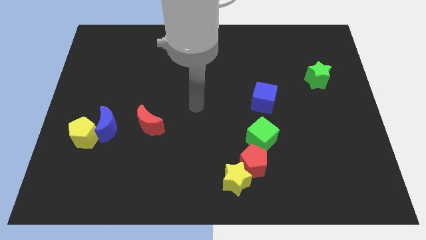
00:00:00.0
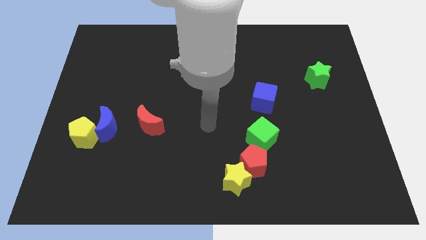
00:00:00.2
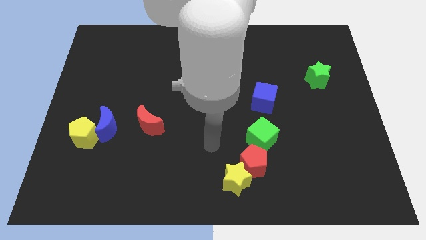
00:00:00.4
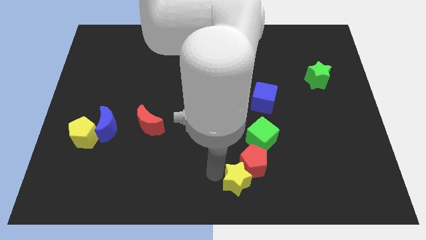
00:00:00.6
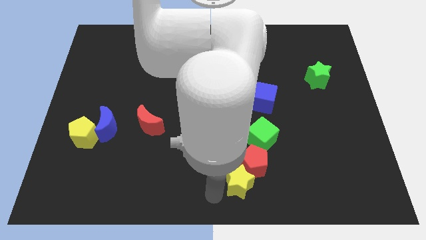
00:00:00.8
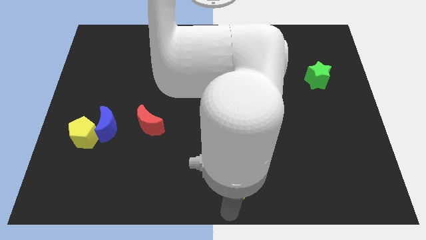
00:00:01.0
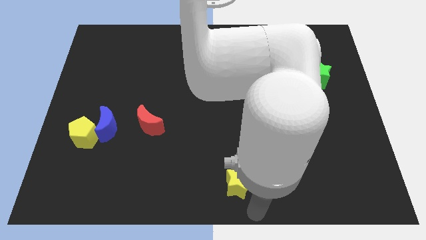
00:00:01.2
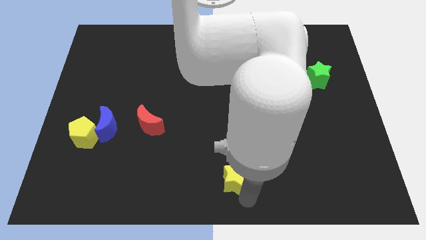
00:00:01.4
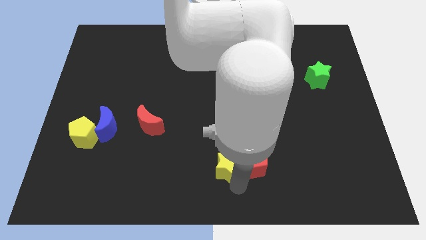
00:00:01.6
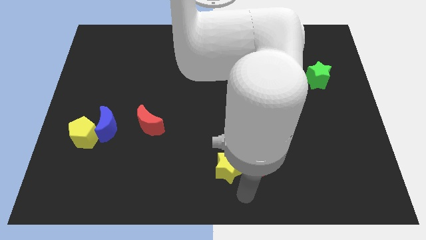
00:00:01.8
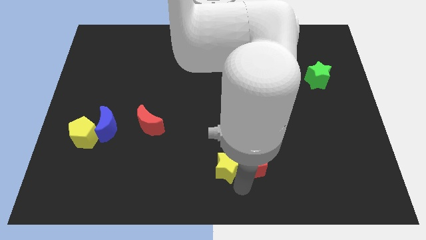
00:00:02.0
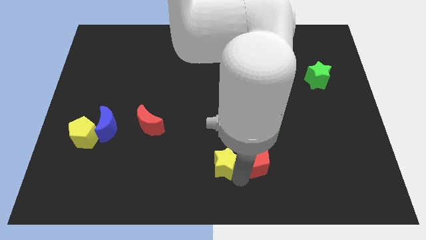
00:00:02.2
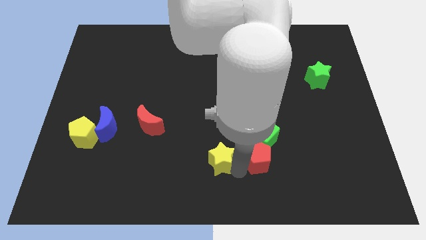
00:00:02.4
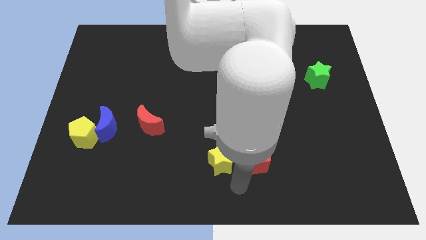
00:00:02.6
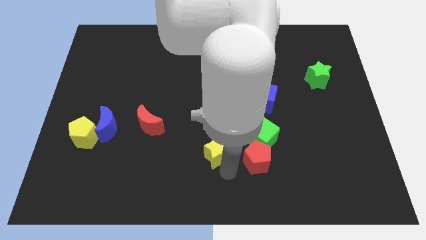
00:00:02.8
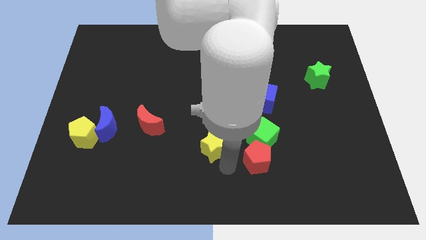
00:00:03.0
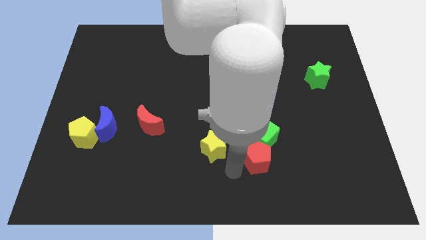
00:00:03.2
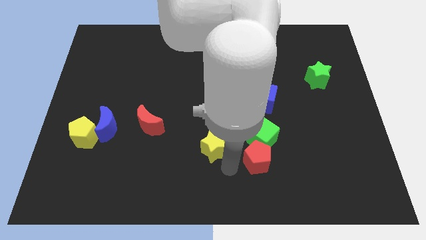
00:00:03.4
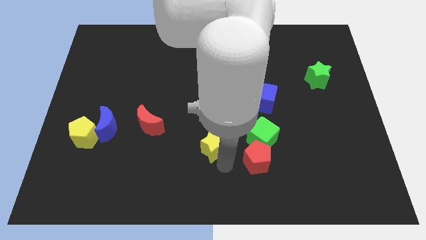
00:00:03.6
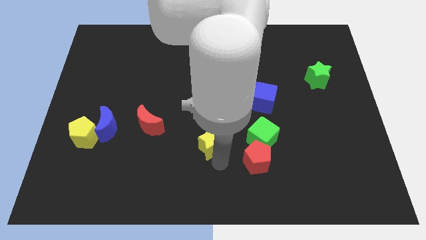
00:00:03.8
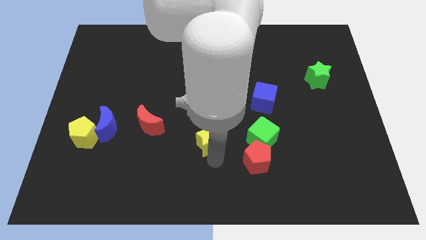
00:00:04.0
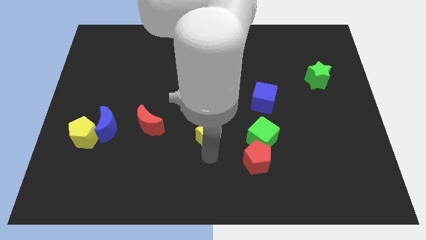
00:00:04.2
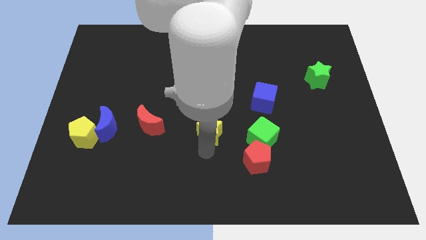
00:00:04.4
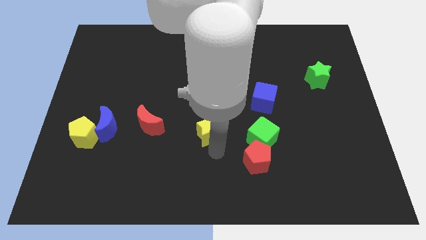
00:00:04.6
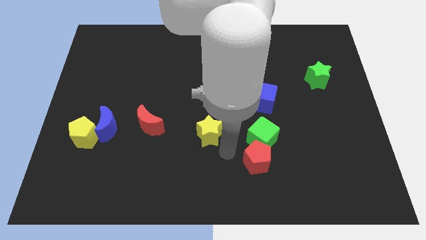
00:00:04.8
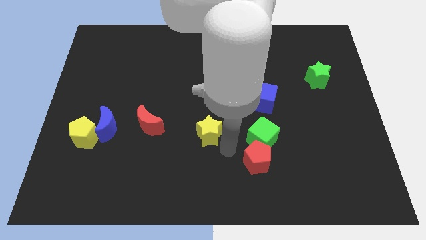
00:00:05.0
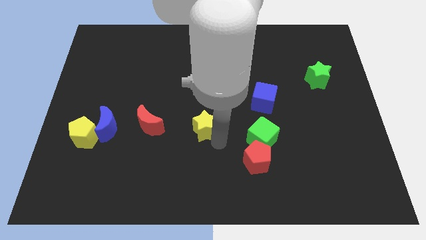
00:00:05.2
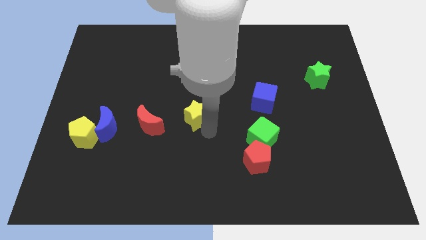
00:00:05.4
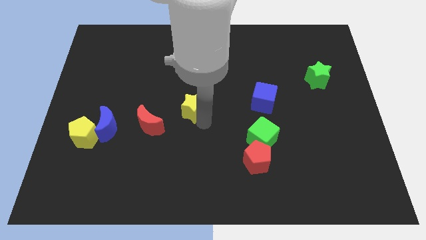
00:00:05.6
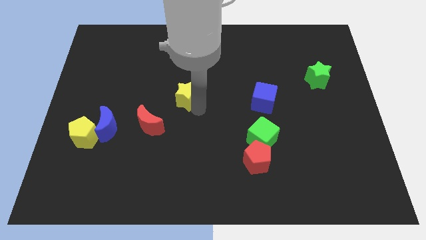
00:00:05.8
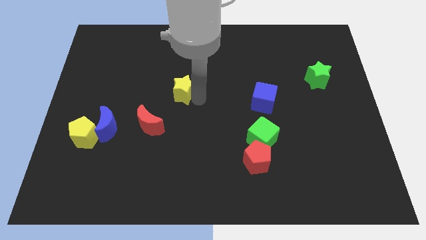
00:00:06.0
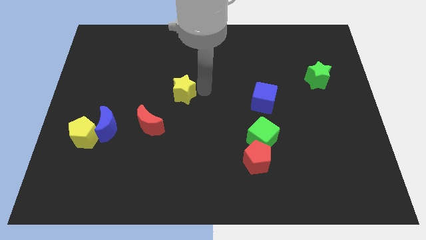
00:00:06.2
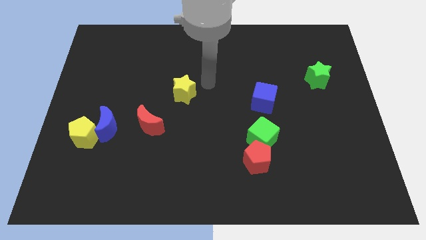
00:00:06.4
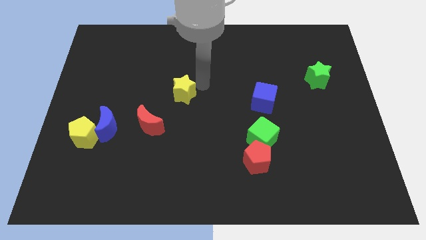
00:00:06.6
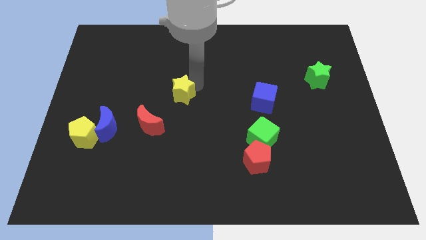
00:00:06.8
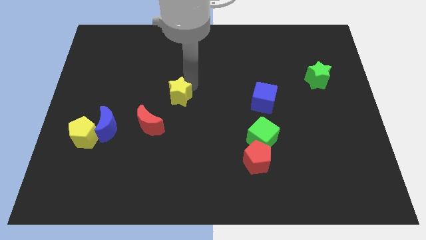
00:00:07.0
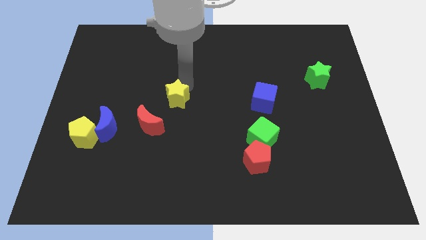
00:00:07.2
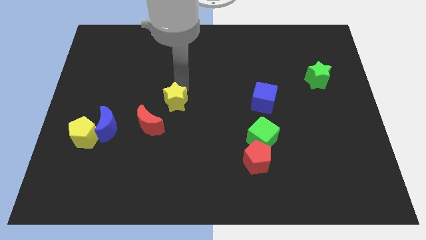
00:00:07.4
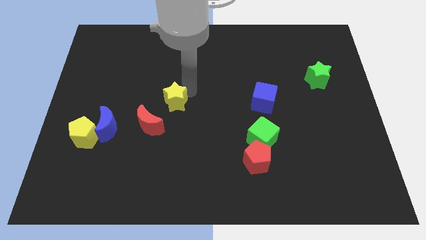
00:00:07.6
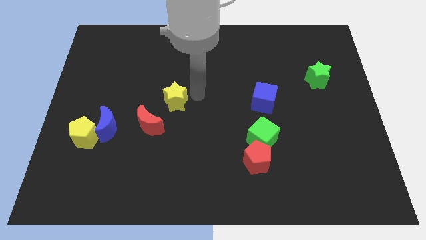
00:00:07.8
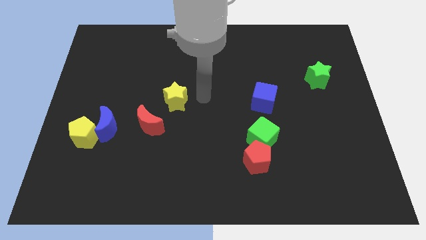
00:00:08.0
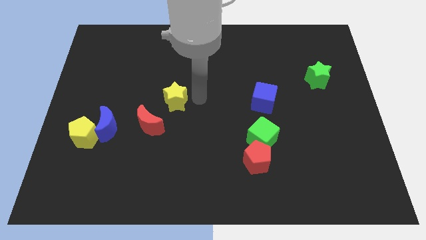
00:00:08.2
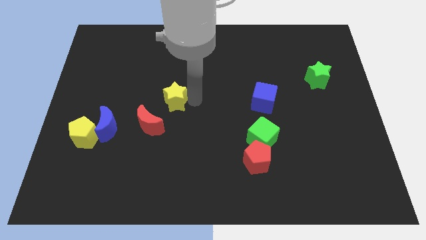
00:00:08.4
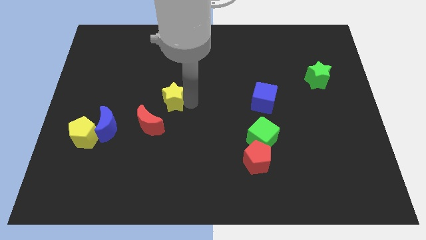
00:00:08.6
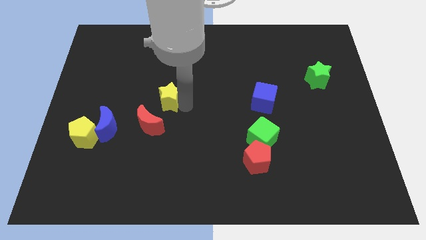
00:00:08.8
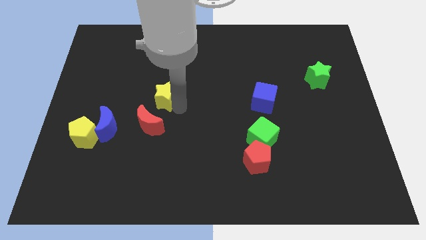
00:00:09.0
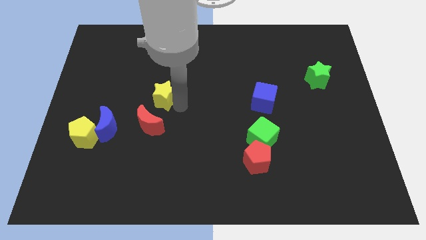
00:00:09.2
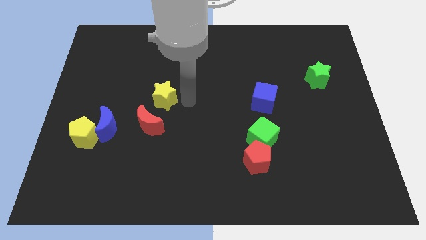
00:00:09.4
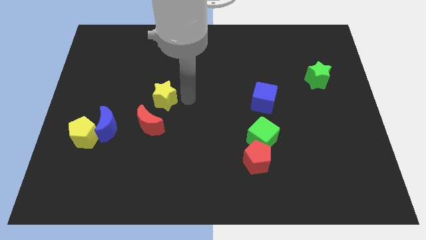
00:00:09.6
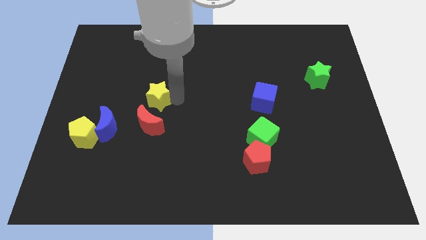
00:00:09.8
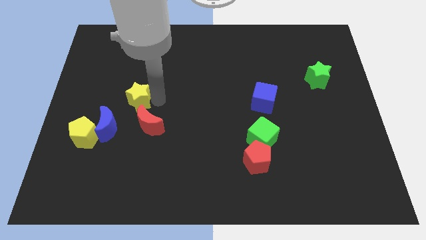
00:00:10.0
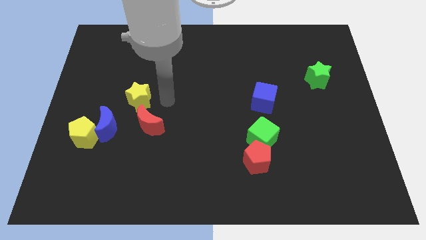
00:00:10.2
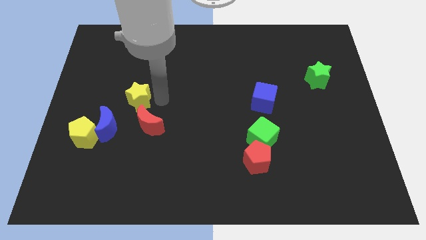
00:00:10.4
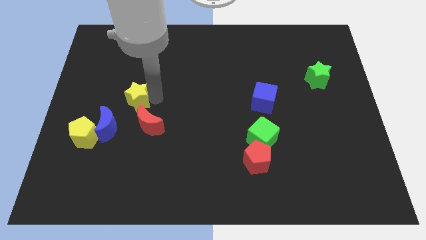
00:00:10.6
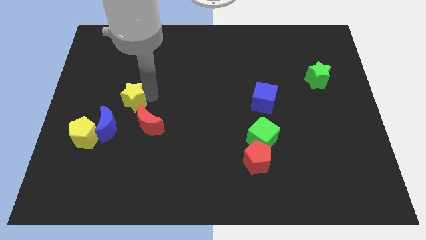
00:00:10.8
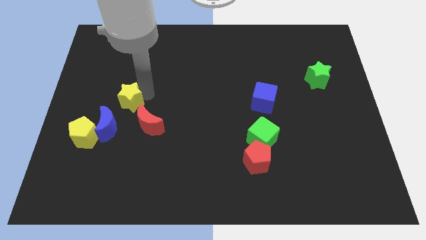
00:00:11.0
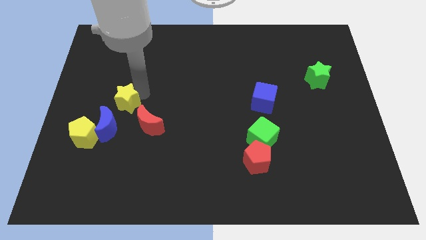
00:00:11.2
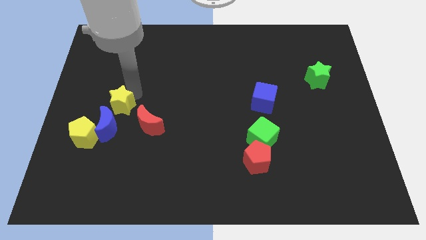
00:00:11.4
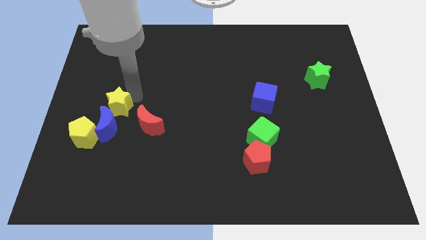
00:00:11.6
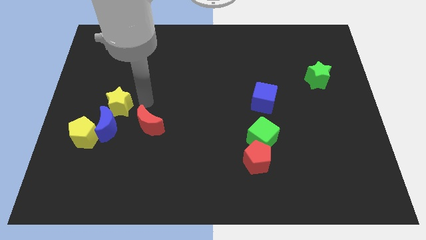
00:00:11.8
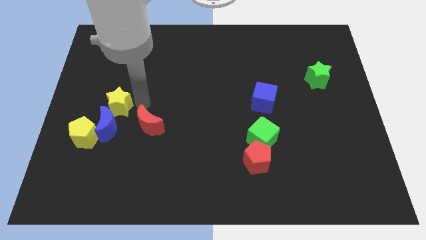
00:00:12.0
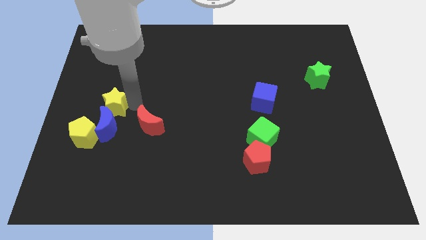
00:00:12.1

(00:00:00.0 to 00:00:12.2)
move the yellow star diagonally up and to the left of the blue moon

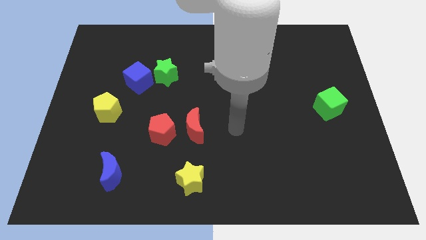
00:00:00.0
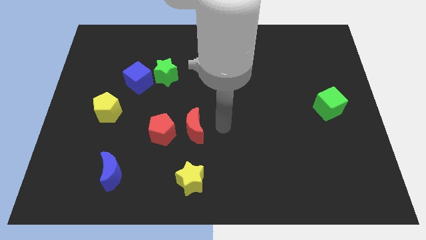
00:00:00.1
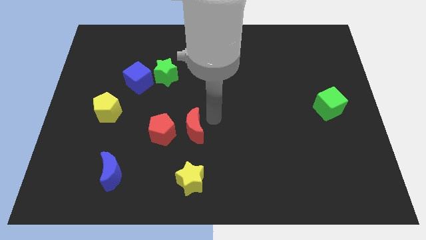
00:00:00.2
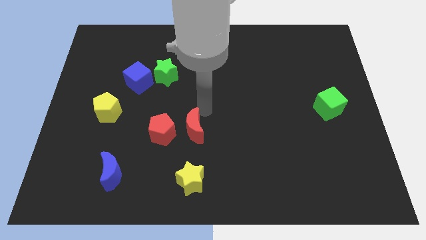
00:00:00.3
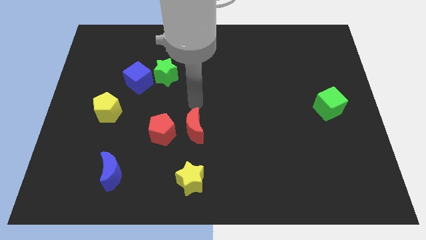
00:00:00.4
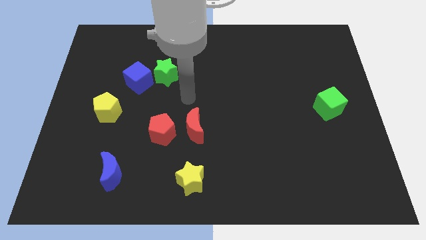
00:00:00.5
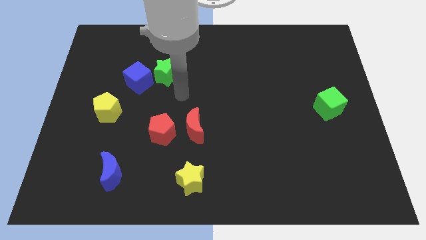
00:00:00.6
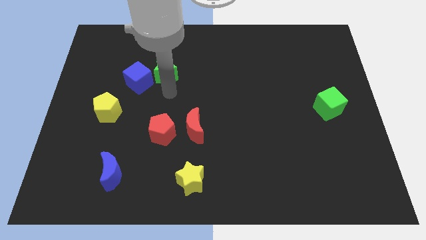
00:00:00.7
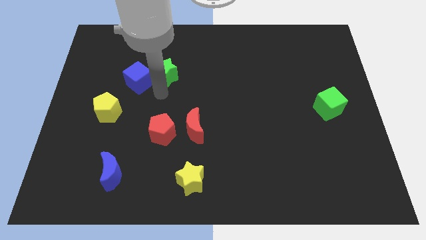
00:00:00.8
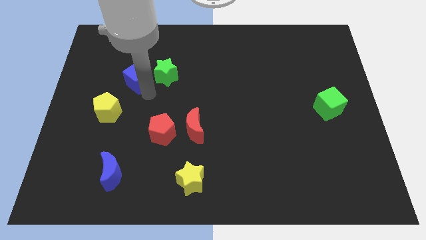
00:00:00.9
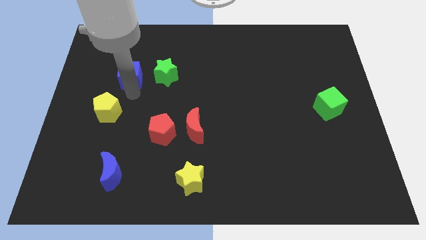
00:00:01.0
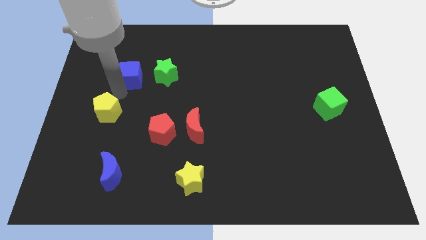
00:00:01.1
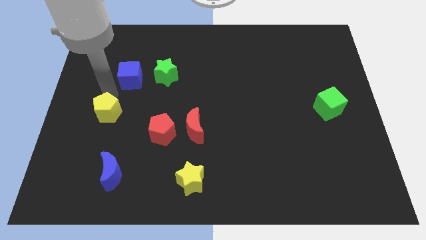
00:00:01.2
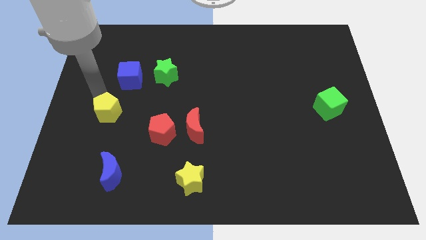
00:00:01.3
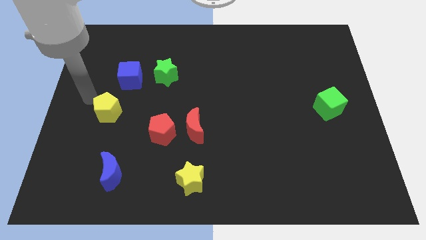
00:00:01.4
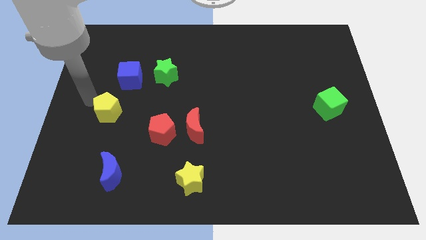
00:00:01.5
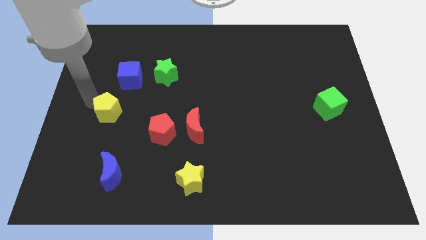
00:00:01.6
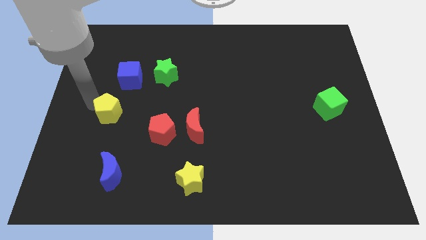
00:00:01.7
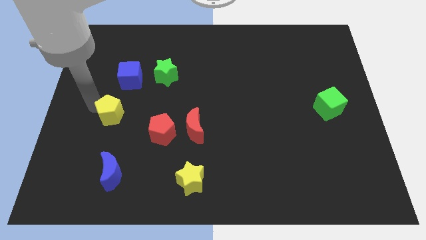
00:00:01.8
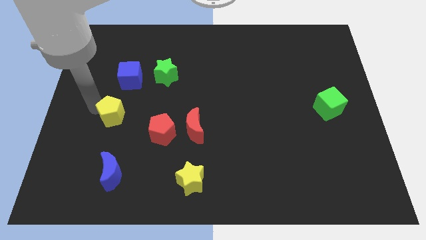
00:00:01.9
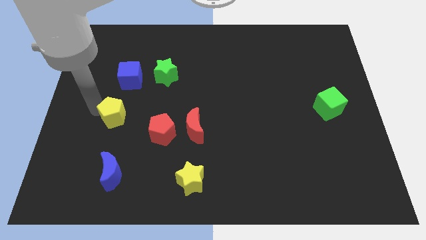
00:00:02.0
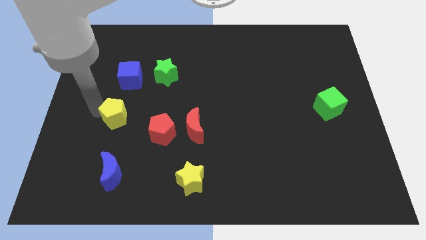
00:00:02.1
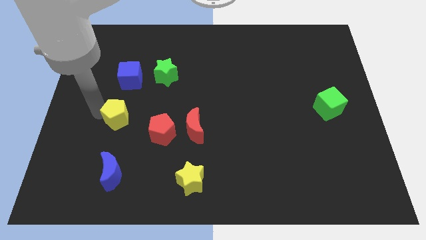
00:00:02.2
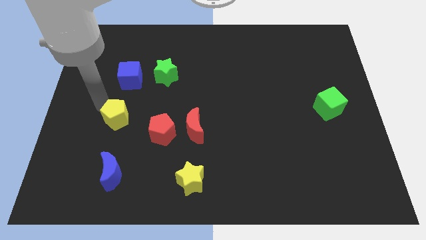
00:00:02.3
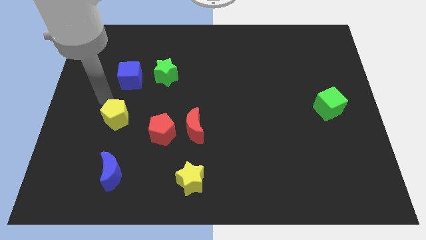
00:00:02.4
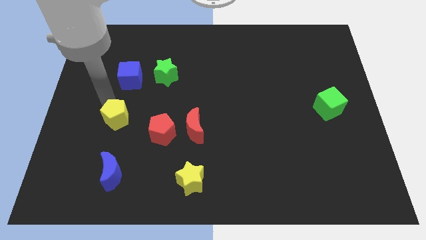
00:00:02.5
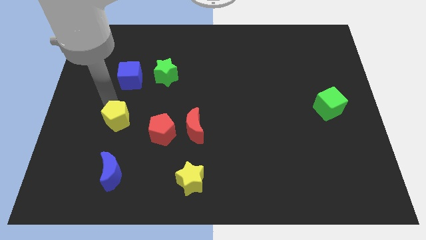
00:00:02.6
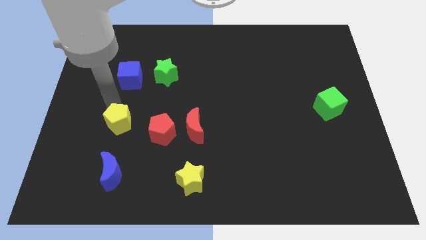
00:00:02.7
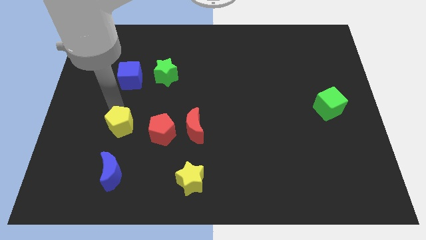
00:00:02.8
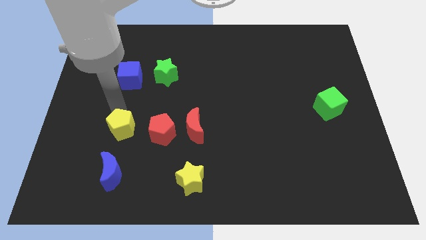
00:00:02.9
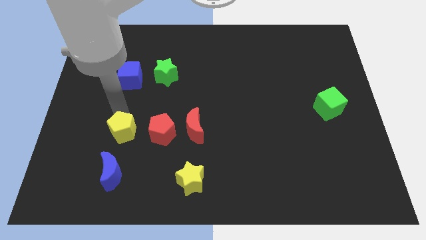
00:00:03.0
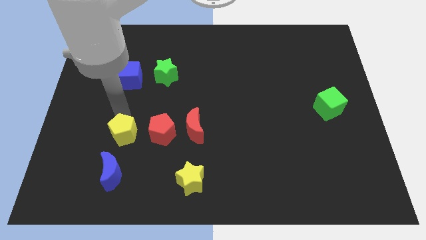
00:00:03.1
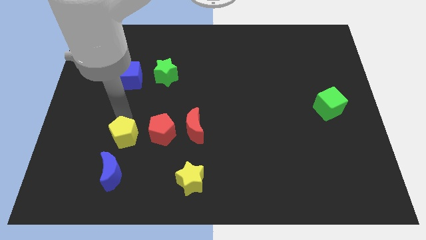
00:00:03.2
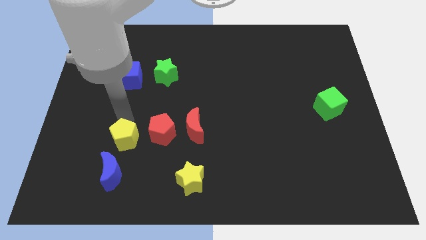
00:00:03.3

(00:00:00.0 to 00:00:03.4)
slide the yellow pentagon diagonally down and to the left of the red pentagon
